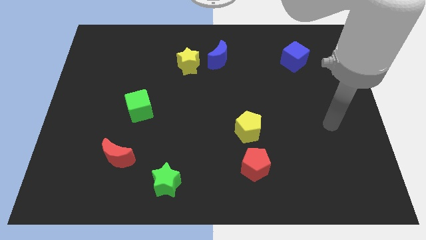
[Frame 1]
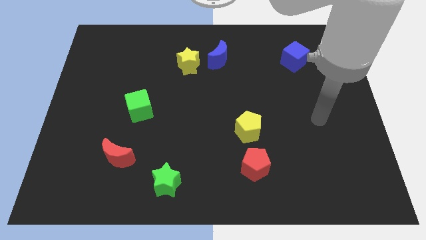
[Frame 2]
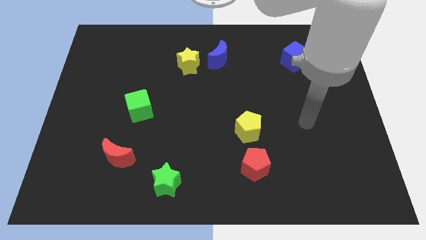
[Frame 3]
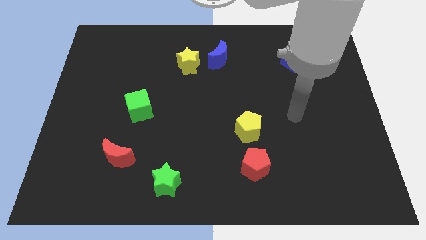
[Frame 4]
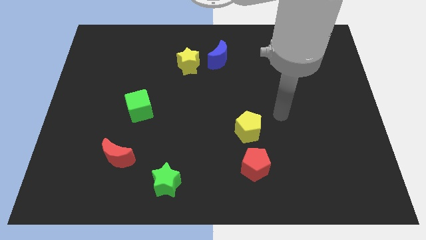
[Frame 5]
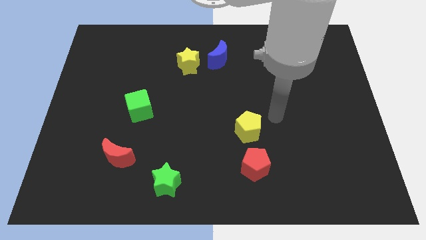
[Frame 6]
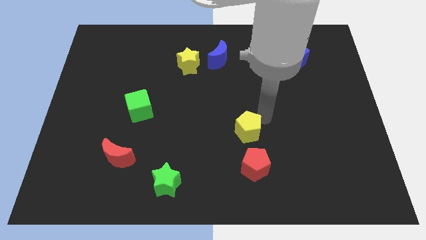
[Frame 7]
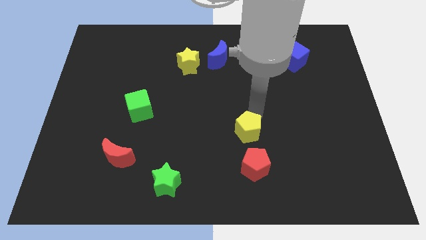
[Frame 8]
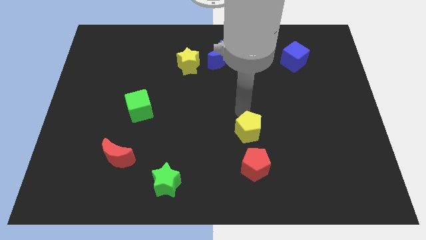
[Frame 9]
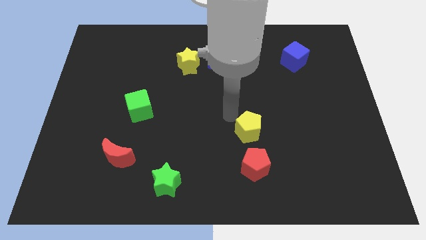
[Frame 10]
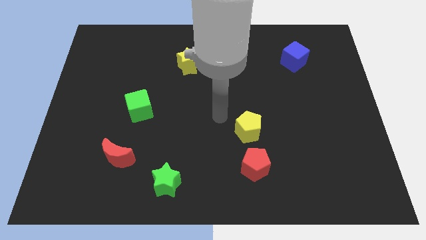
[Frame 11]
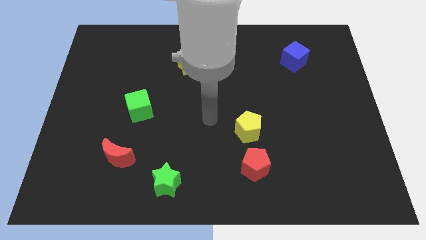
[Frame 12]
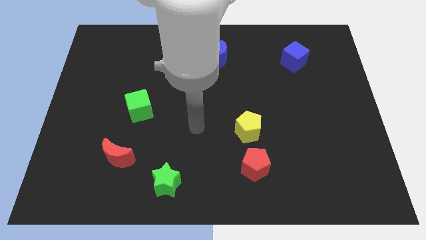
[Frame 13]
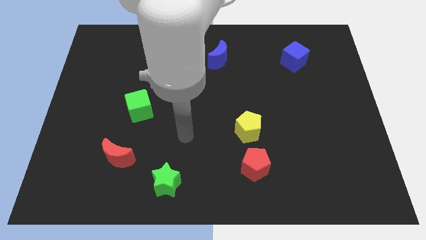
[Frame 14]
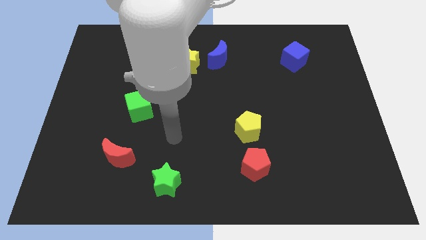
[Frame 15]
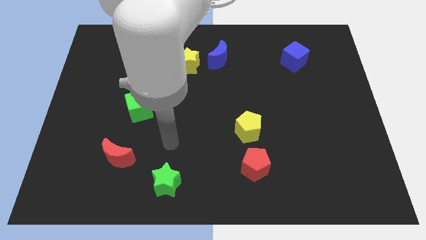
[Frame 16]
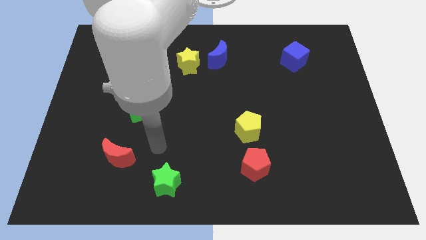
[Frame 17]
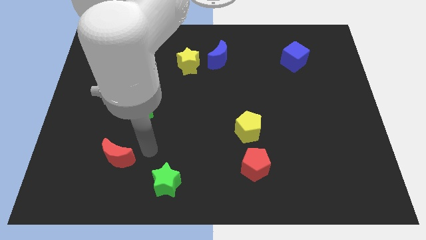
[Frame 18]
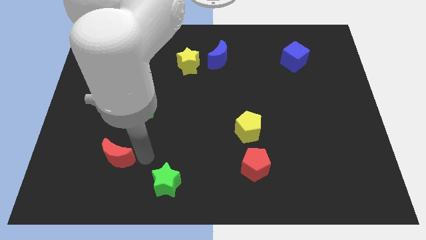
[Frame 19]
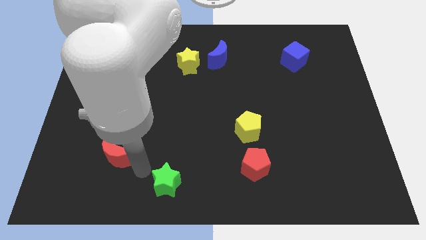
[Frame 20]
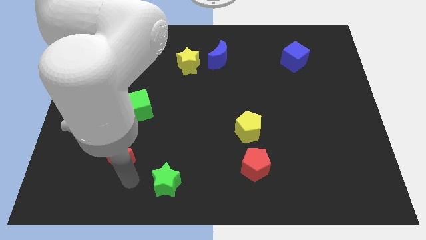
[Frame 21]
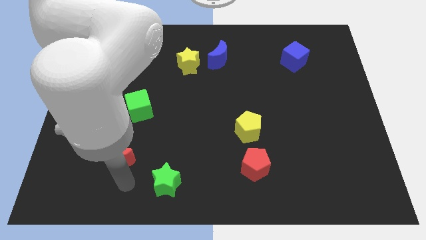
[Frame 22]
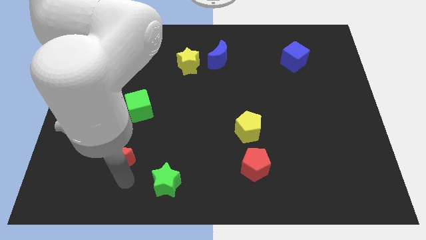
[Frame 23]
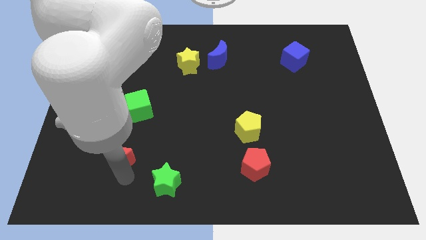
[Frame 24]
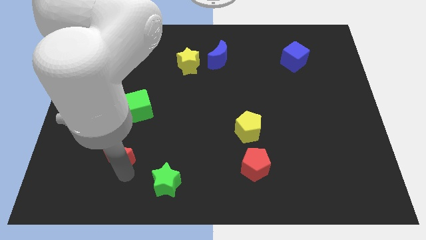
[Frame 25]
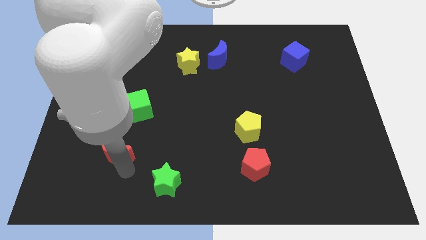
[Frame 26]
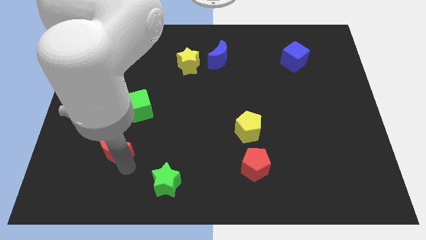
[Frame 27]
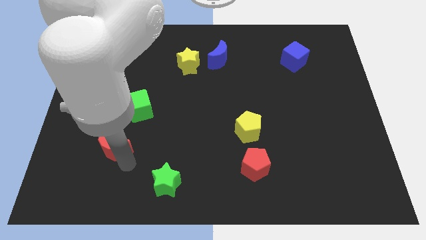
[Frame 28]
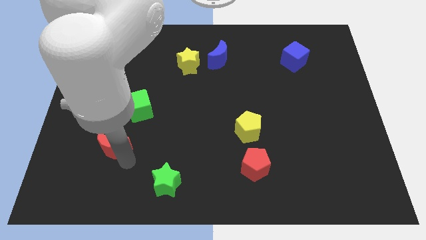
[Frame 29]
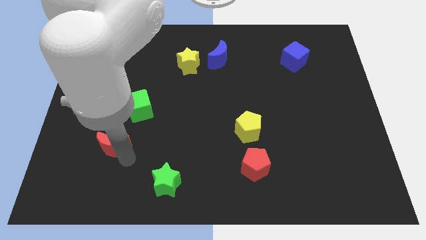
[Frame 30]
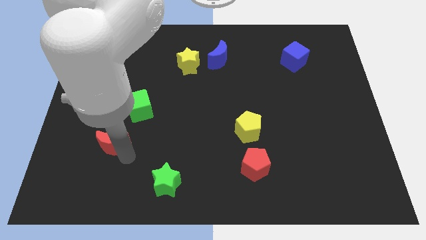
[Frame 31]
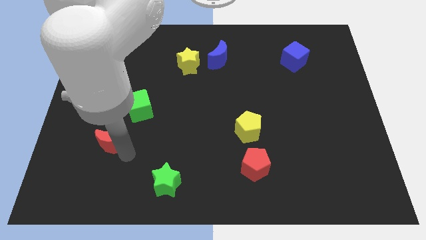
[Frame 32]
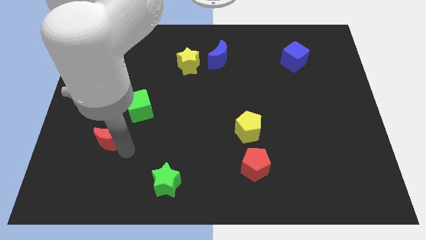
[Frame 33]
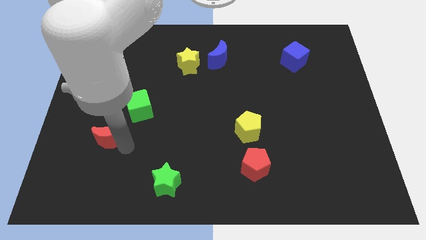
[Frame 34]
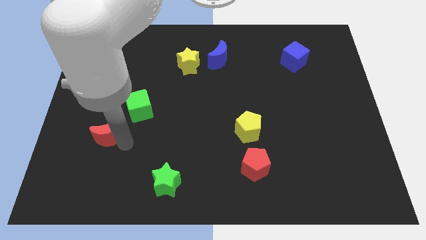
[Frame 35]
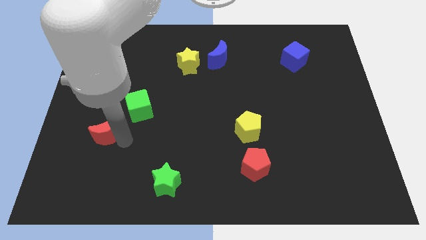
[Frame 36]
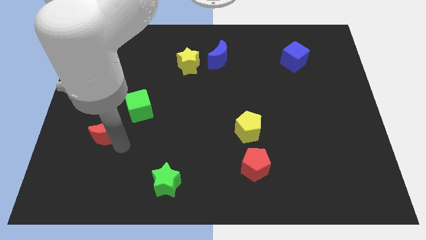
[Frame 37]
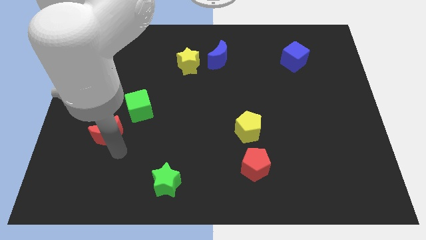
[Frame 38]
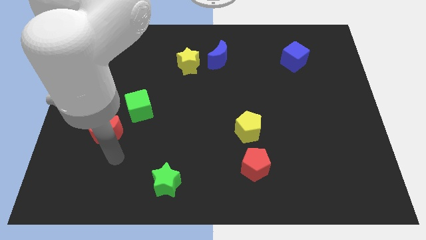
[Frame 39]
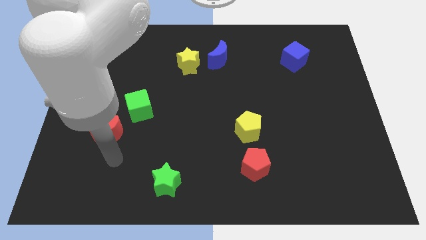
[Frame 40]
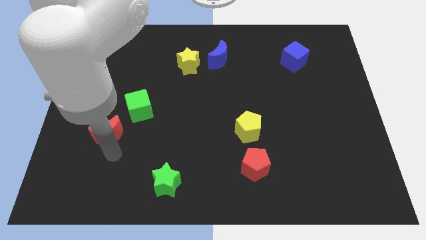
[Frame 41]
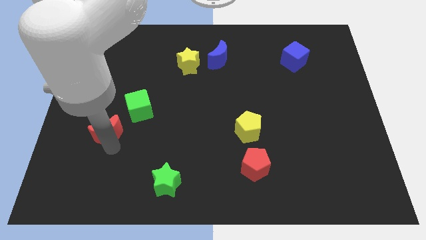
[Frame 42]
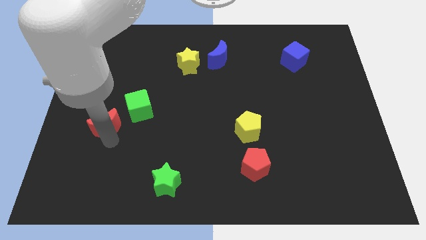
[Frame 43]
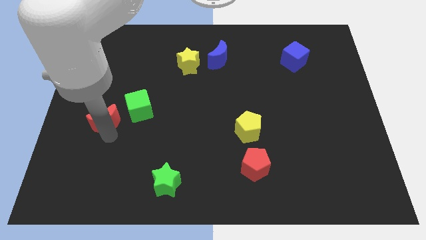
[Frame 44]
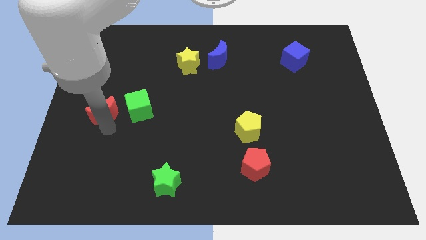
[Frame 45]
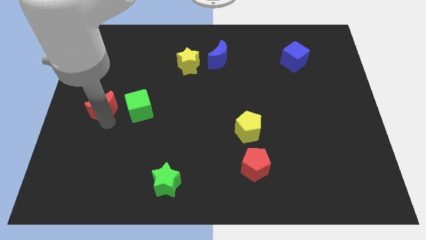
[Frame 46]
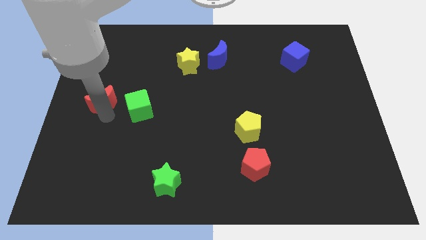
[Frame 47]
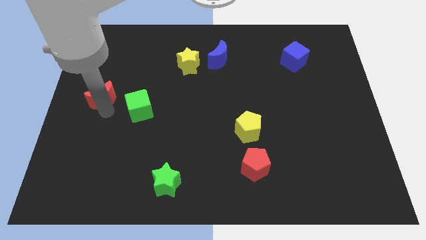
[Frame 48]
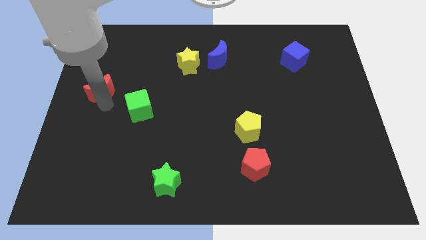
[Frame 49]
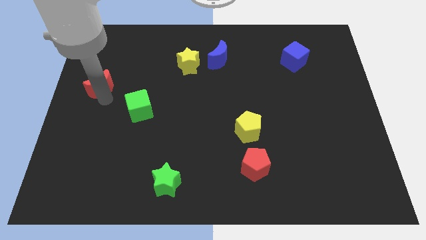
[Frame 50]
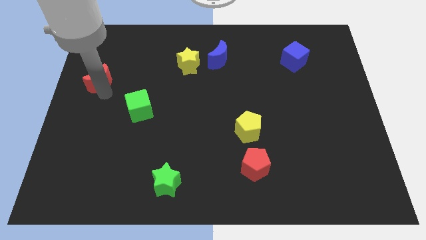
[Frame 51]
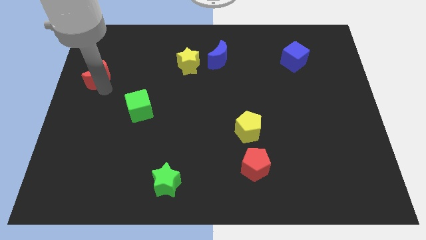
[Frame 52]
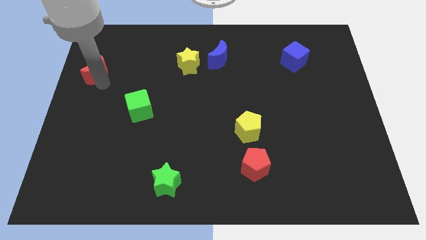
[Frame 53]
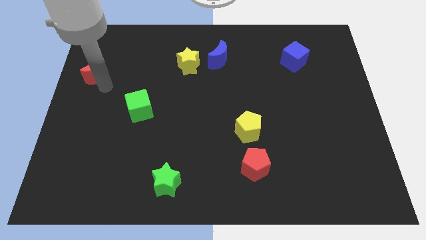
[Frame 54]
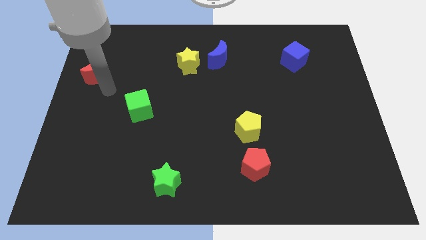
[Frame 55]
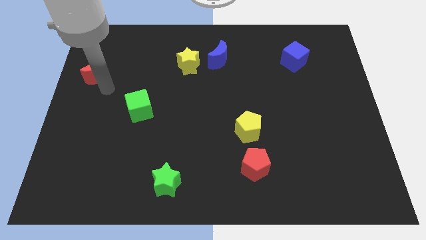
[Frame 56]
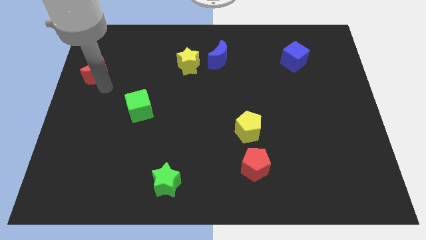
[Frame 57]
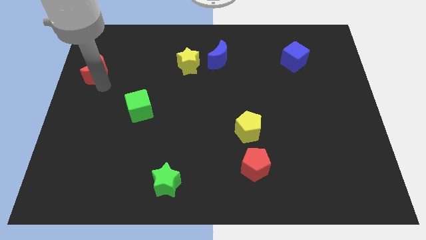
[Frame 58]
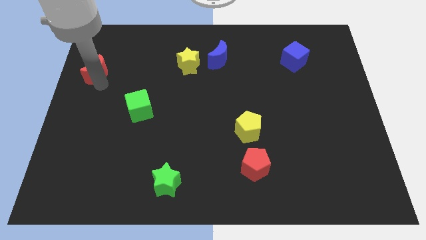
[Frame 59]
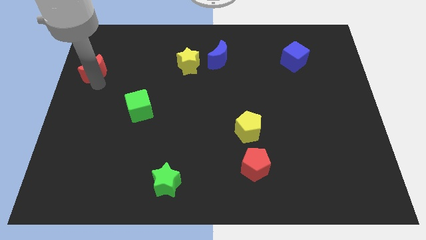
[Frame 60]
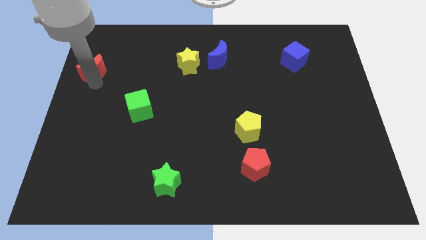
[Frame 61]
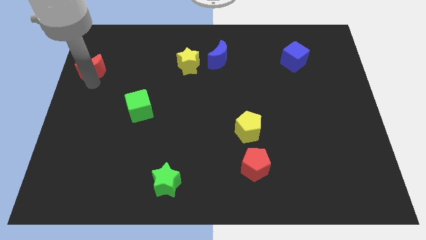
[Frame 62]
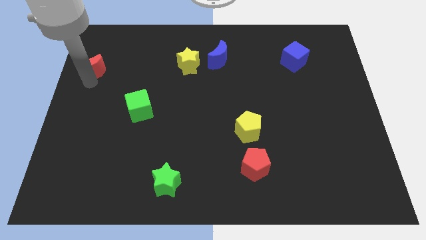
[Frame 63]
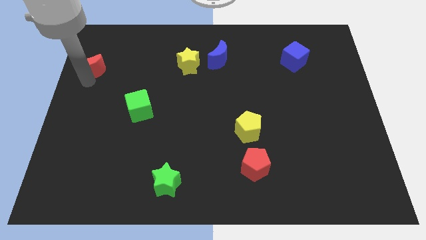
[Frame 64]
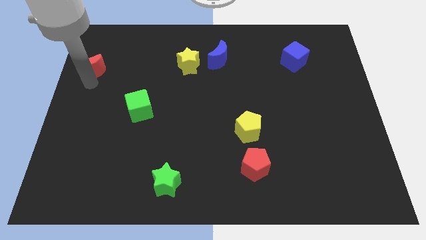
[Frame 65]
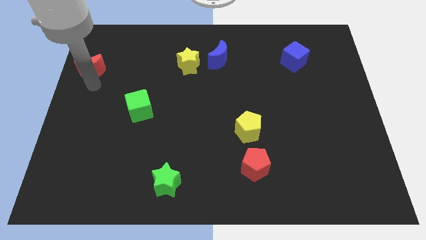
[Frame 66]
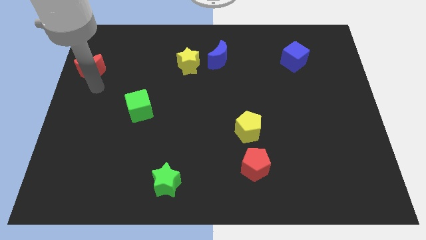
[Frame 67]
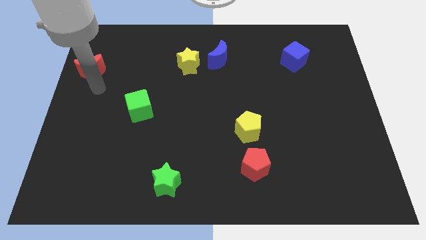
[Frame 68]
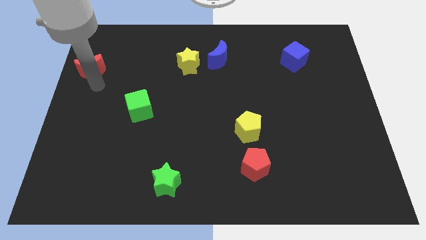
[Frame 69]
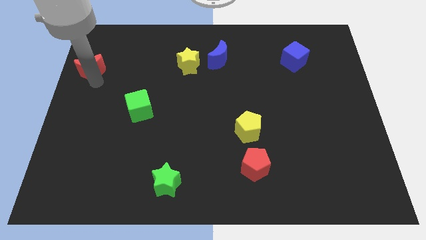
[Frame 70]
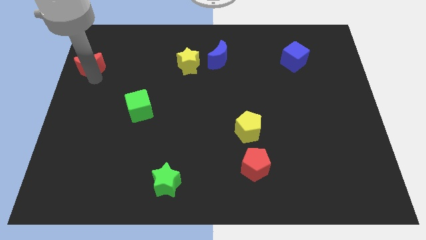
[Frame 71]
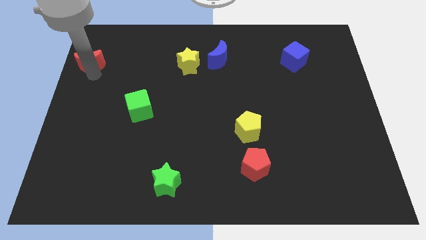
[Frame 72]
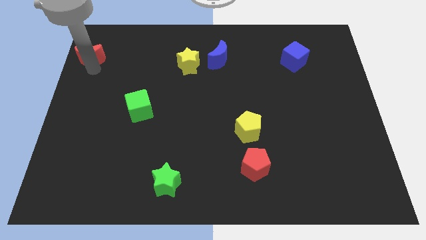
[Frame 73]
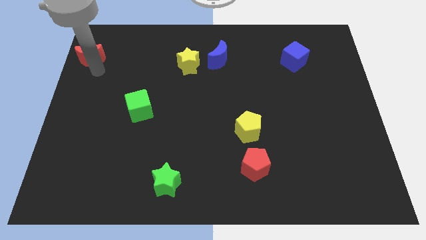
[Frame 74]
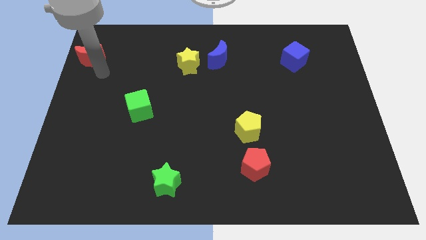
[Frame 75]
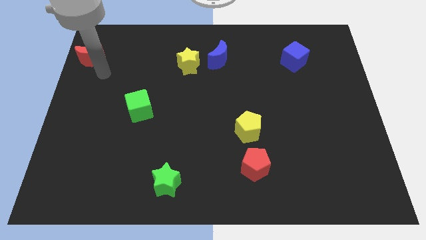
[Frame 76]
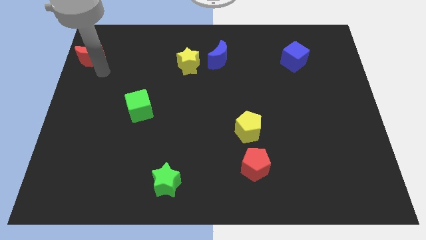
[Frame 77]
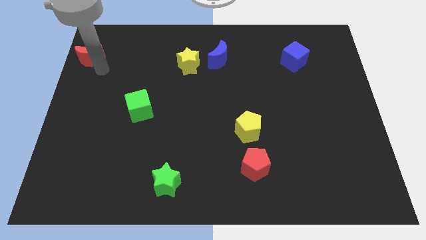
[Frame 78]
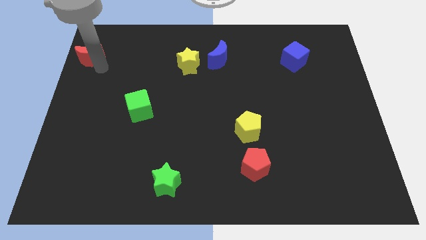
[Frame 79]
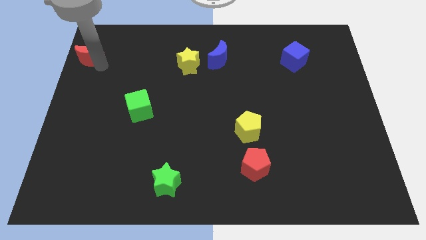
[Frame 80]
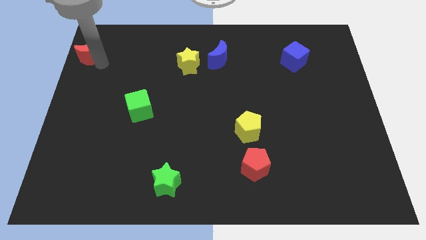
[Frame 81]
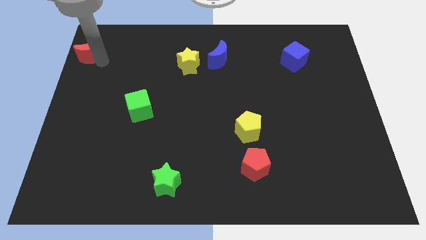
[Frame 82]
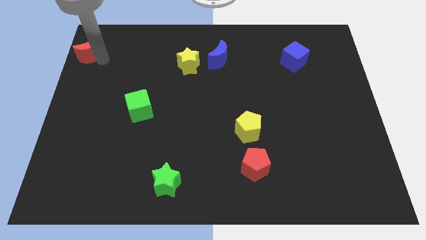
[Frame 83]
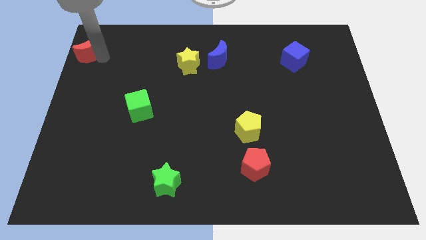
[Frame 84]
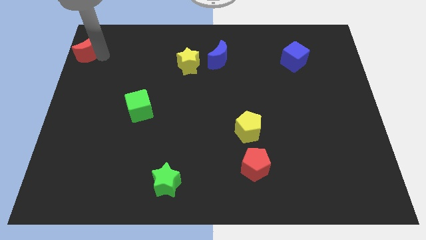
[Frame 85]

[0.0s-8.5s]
move the red moon to the top left
